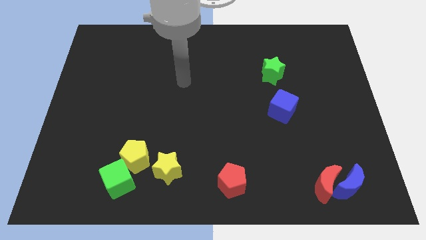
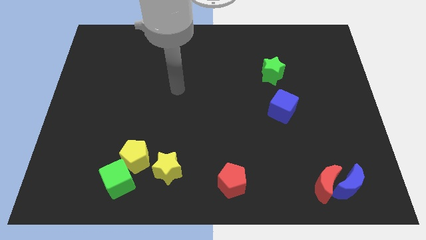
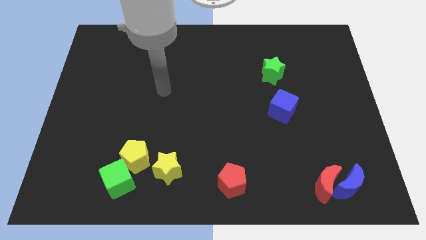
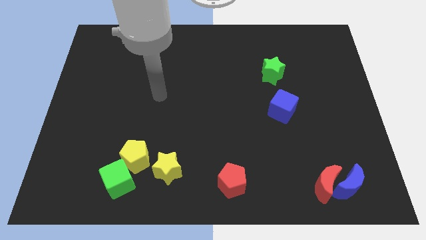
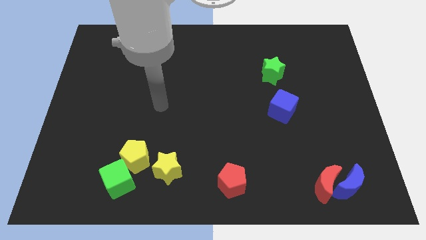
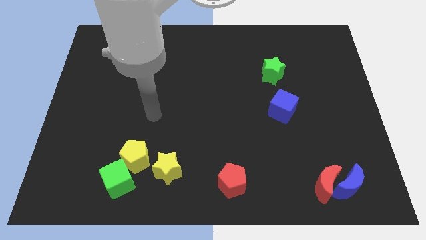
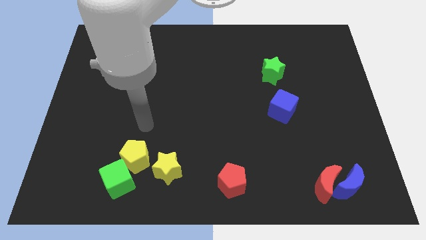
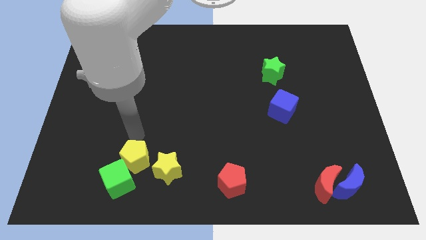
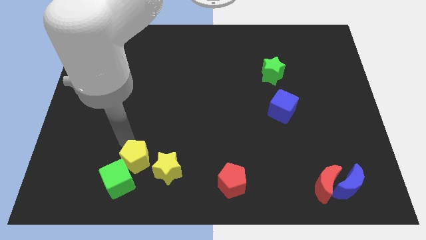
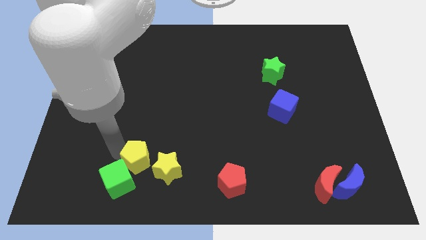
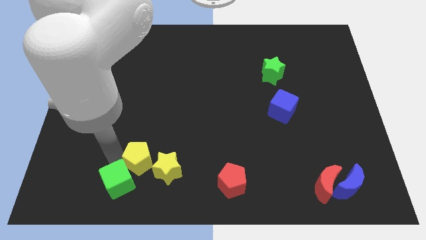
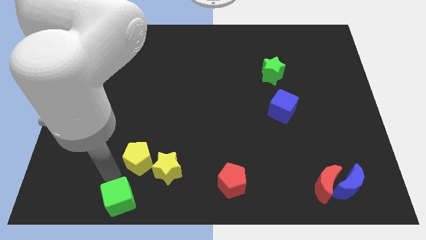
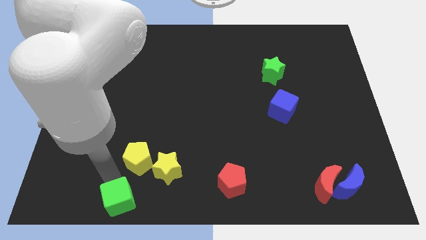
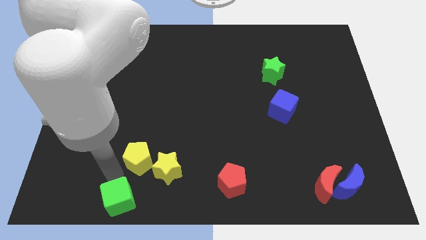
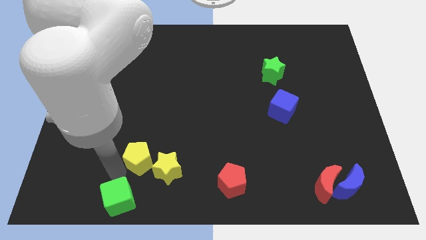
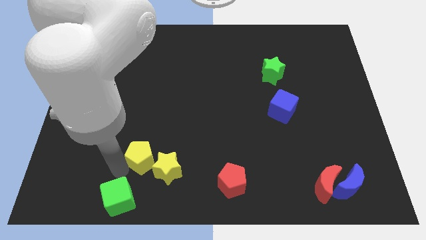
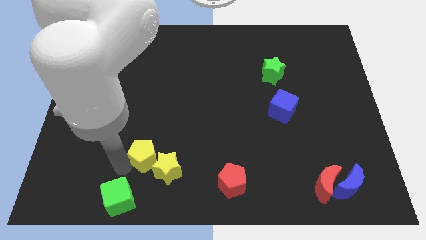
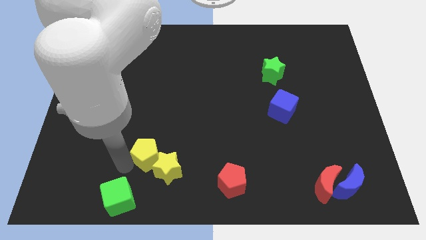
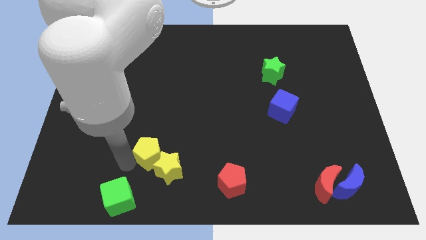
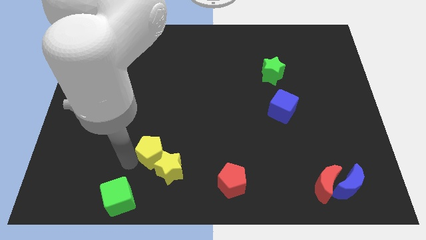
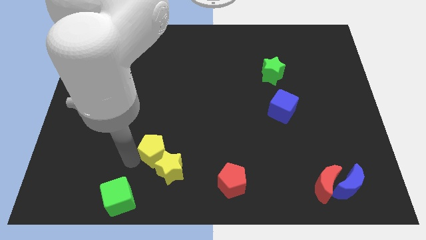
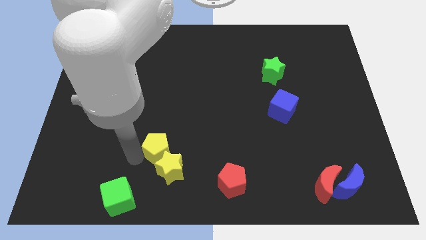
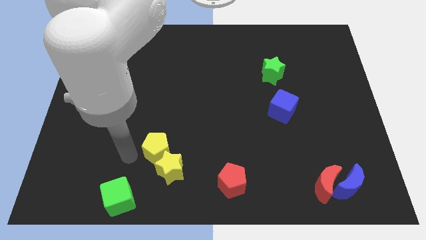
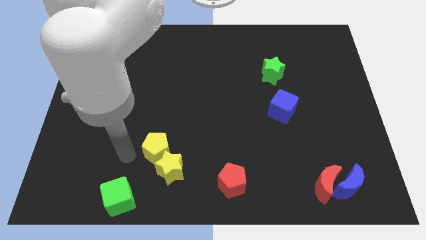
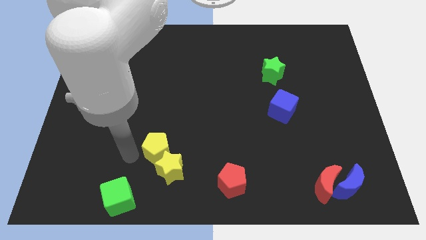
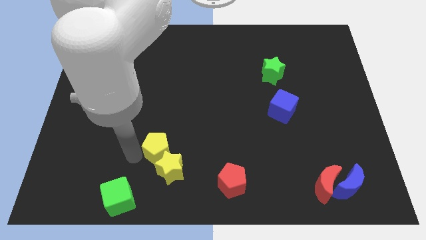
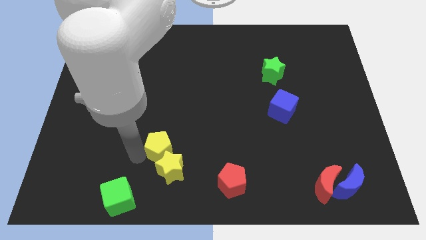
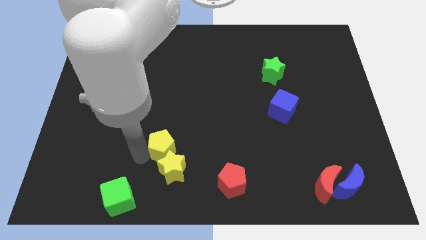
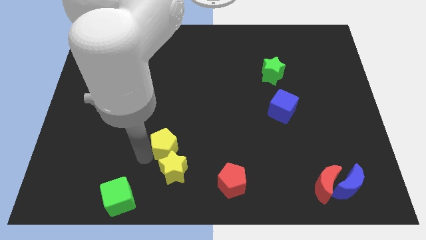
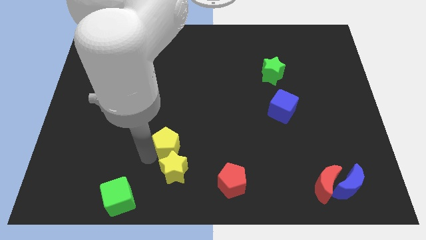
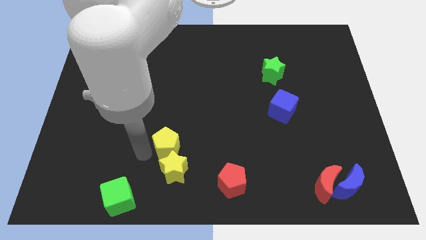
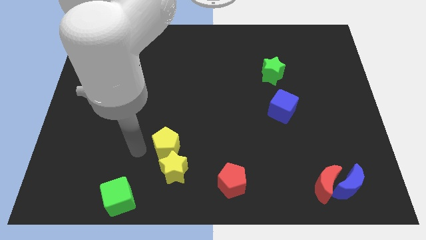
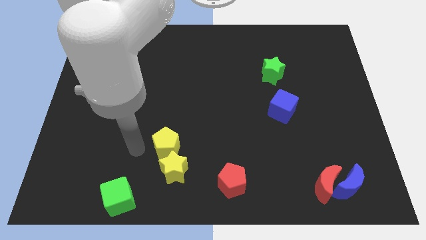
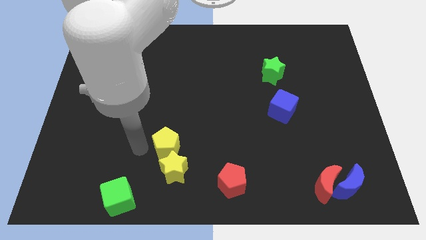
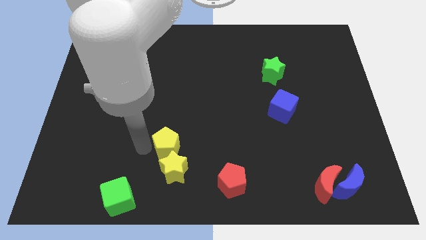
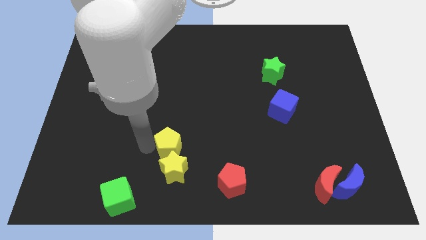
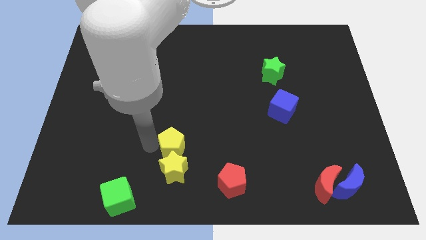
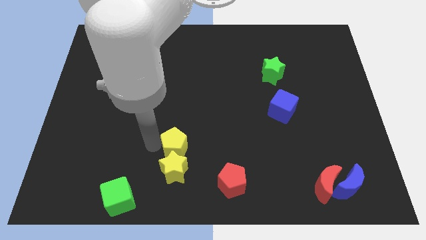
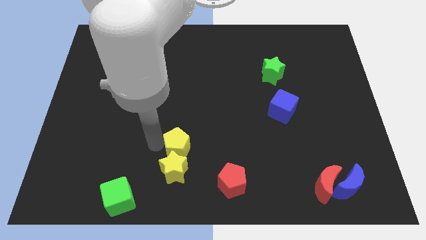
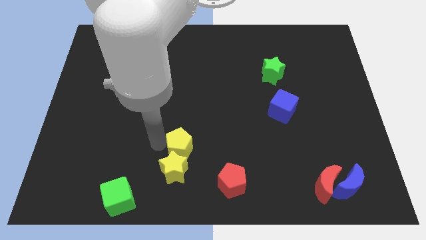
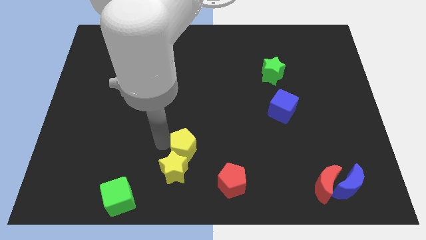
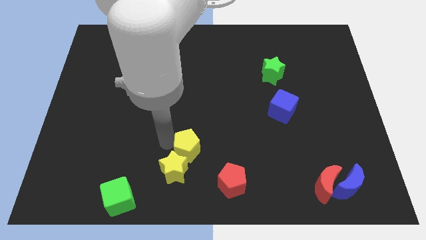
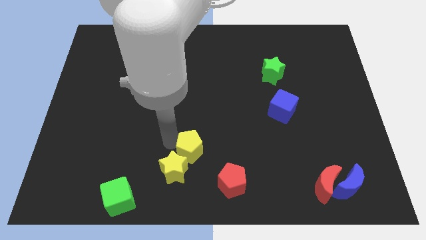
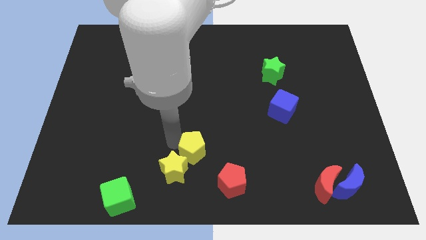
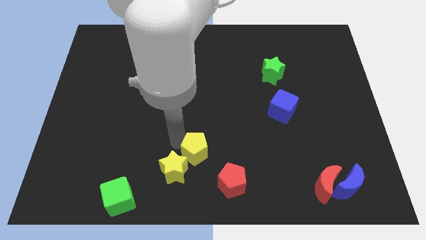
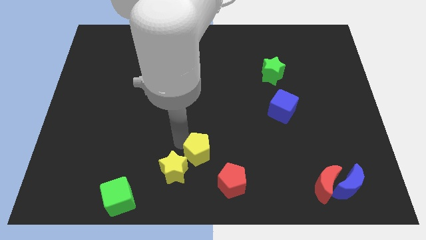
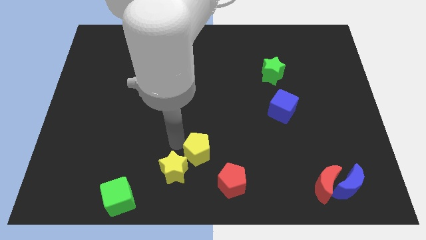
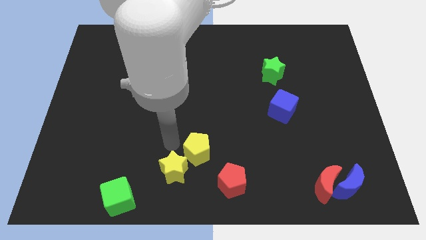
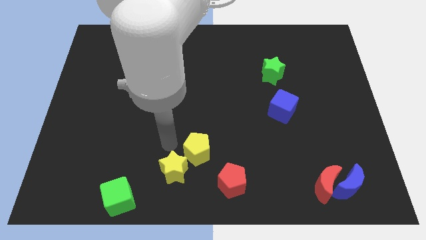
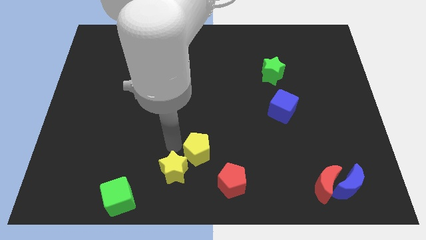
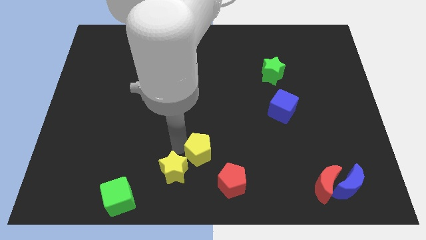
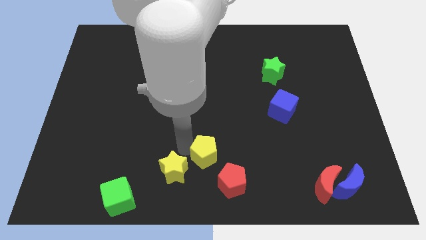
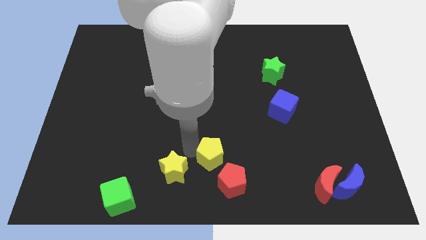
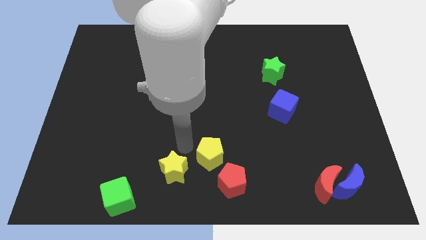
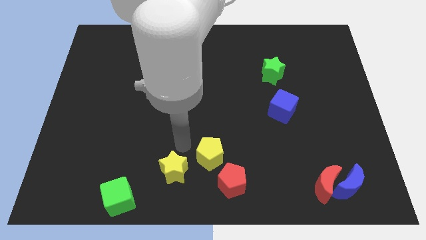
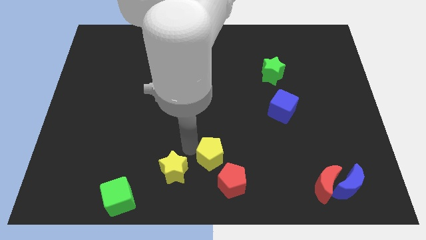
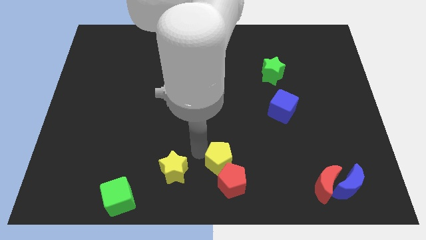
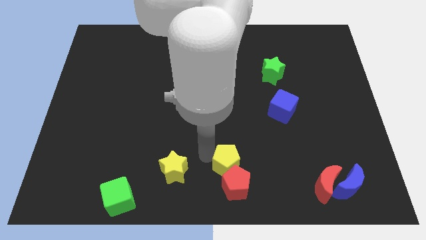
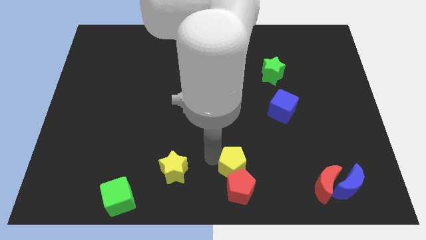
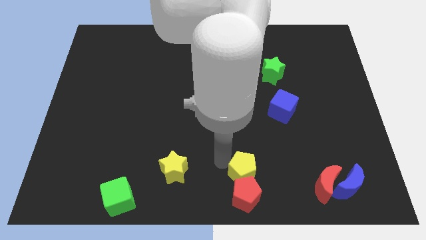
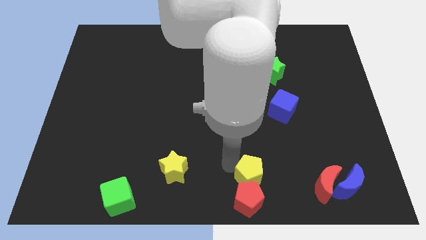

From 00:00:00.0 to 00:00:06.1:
put the yellow pentagon just left of the red moon

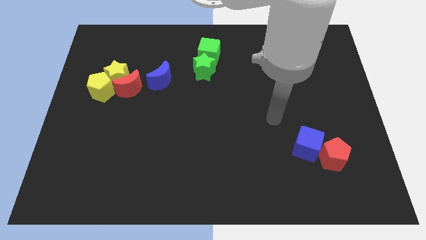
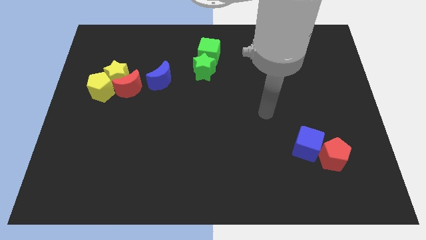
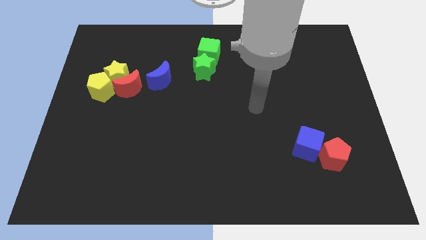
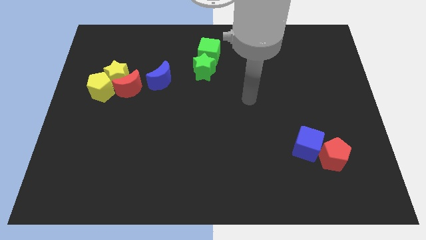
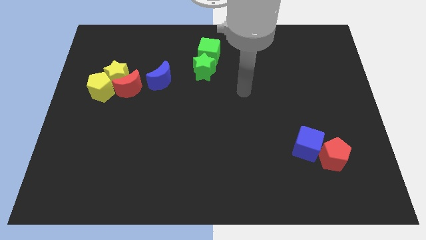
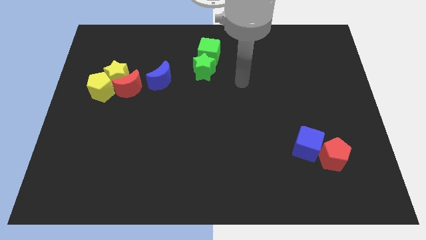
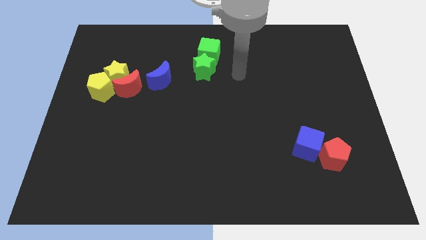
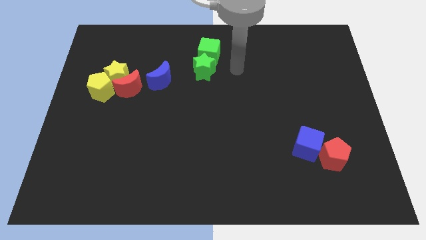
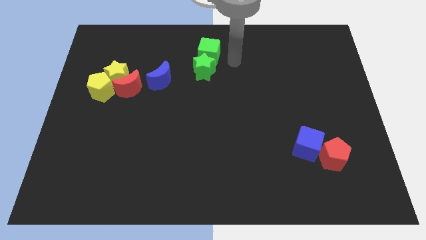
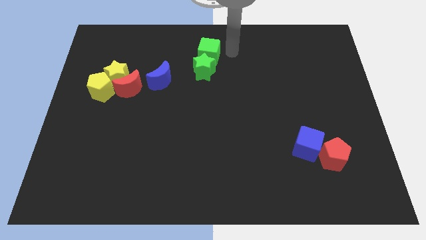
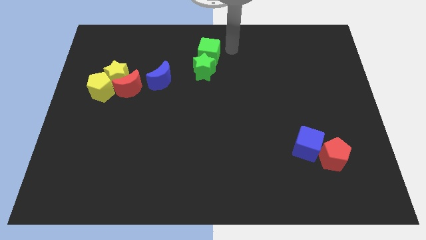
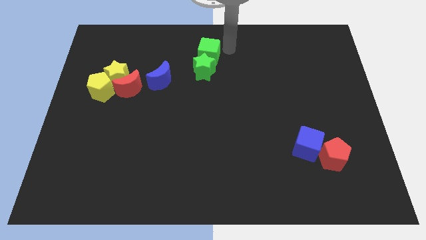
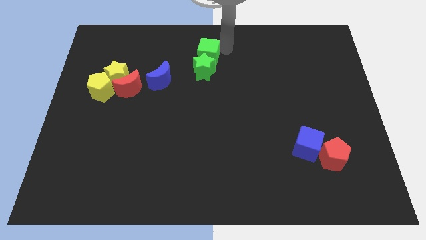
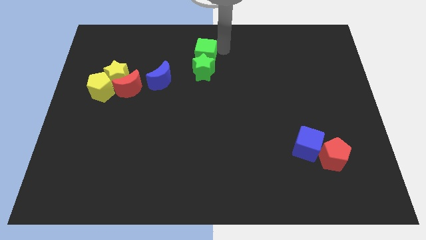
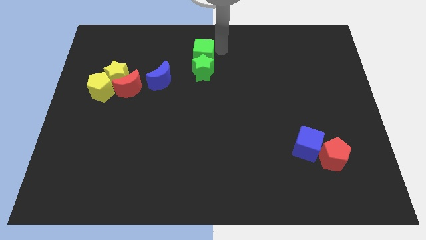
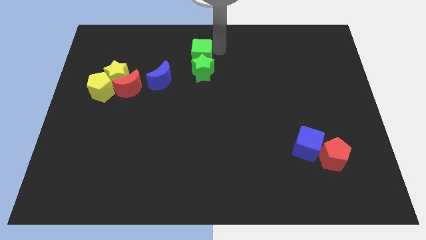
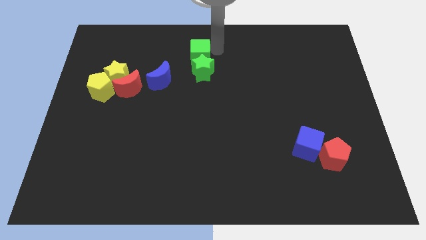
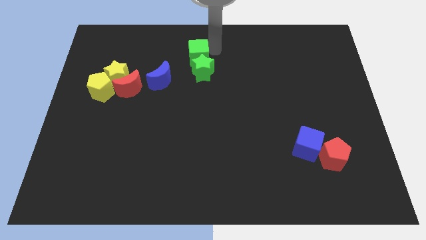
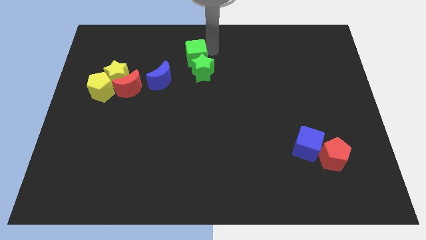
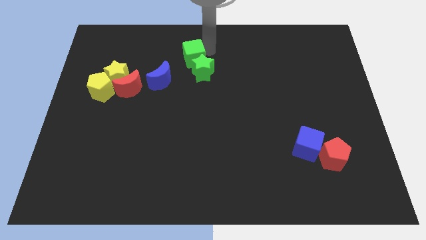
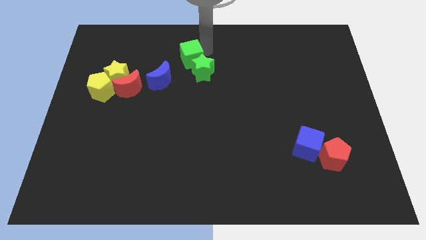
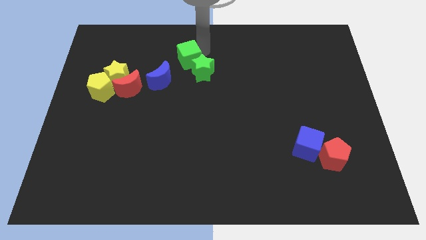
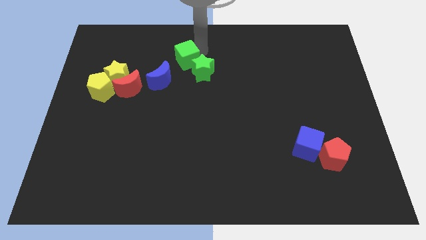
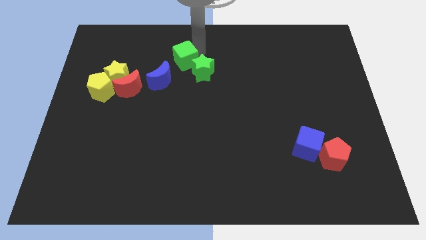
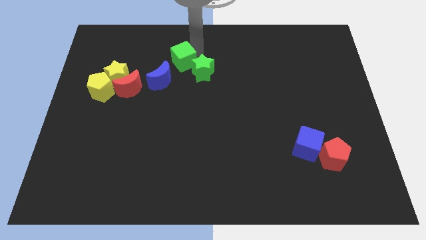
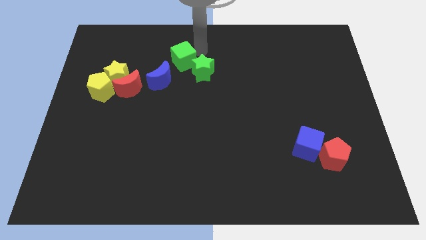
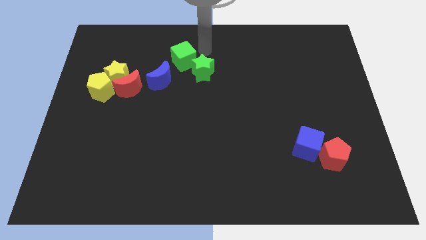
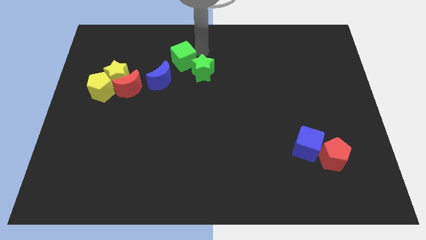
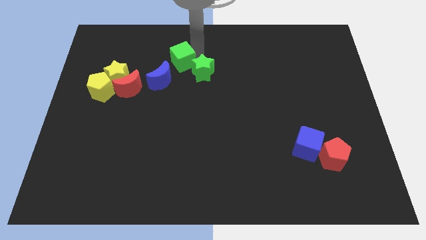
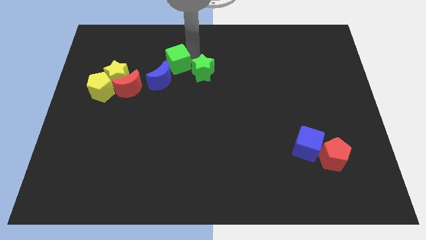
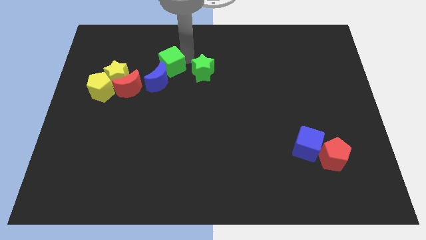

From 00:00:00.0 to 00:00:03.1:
slide the green cube to the top right side of the red moon
